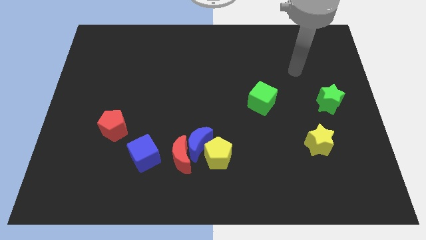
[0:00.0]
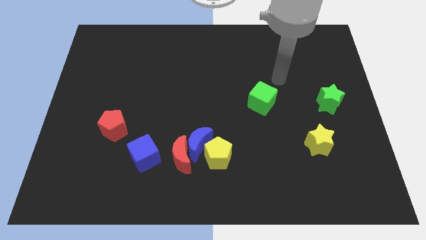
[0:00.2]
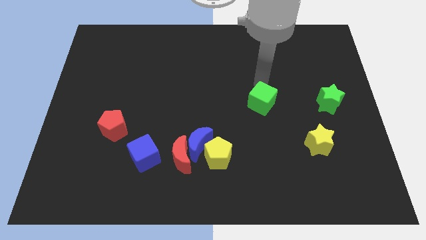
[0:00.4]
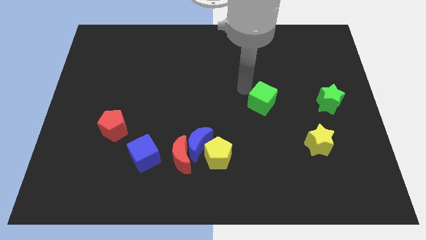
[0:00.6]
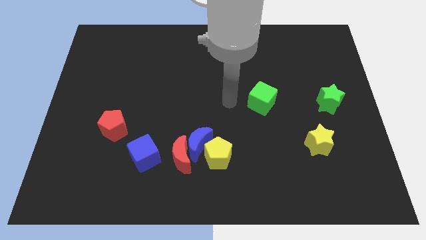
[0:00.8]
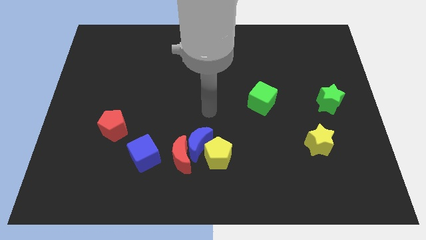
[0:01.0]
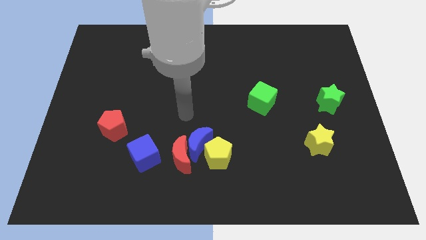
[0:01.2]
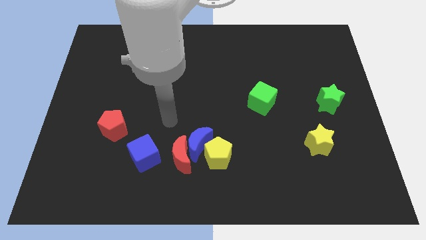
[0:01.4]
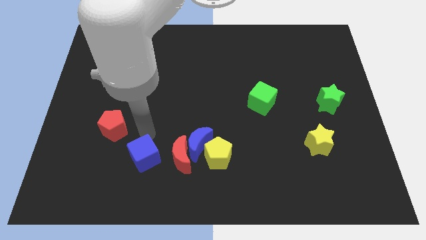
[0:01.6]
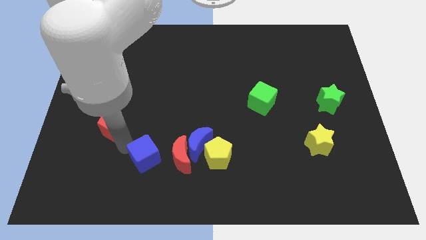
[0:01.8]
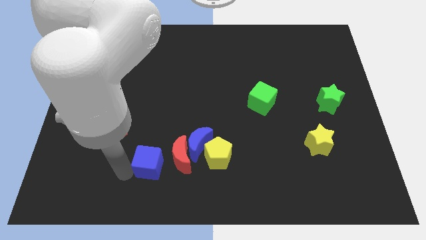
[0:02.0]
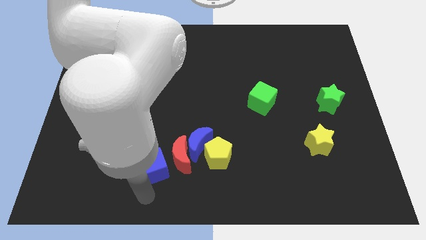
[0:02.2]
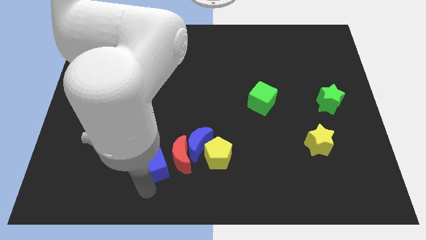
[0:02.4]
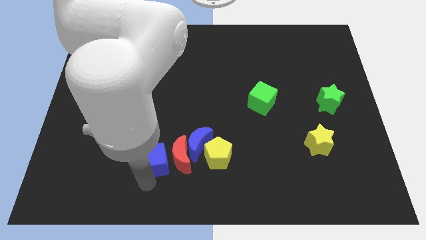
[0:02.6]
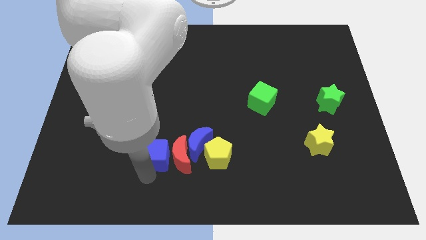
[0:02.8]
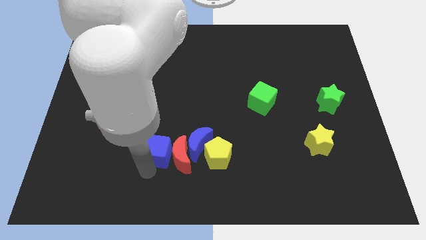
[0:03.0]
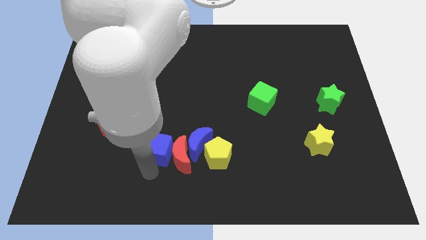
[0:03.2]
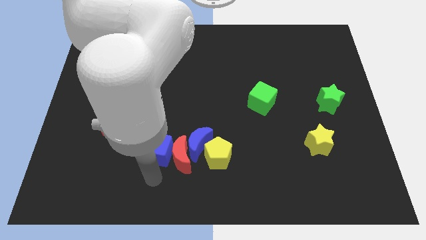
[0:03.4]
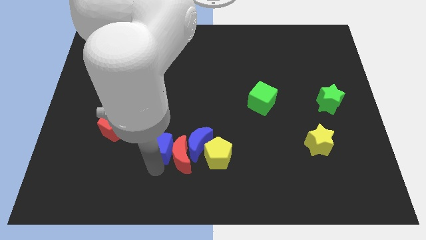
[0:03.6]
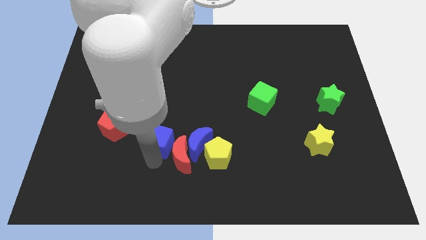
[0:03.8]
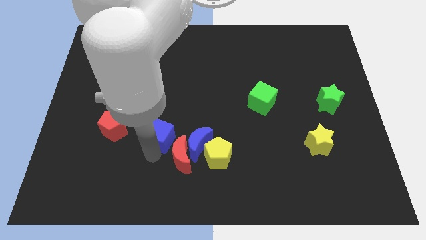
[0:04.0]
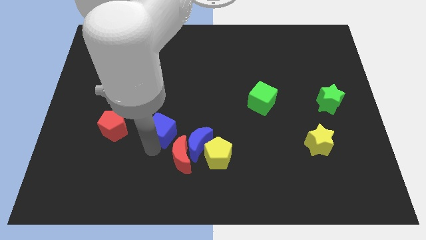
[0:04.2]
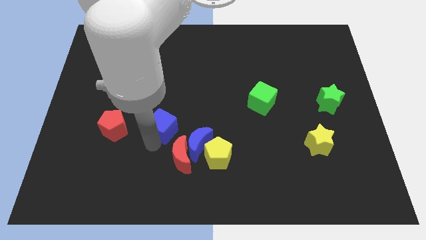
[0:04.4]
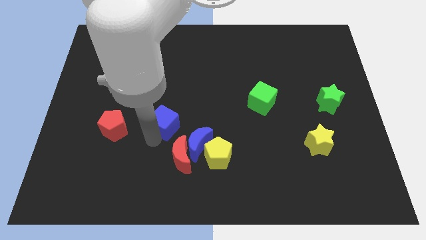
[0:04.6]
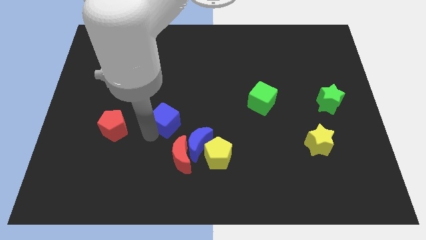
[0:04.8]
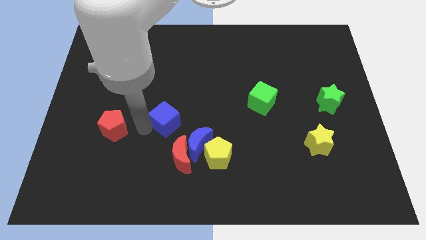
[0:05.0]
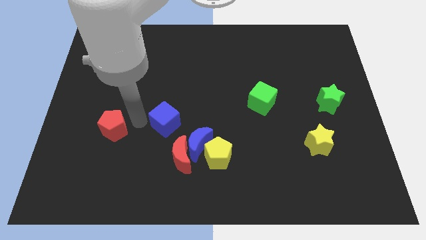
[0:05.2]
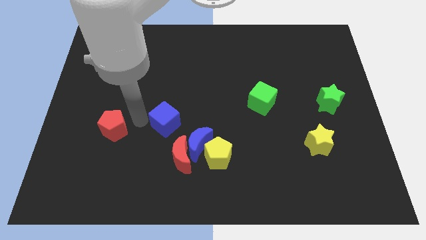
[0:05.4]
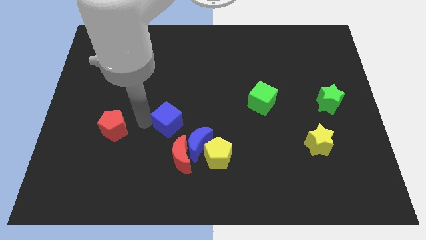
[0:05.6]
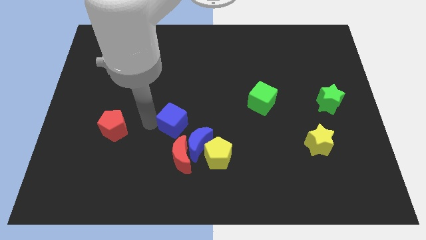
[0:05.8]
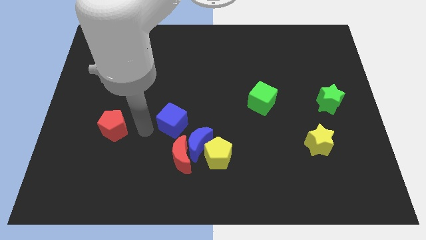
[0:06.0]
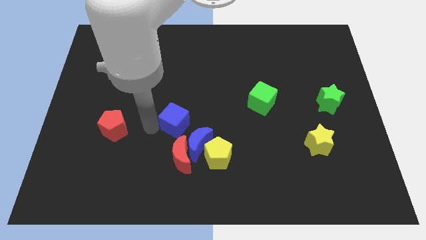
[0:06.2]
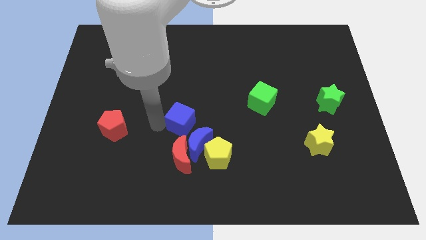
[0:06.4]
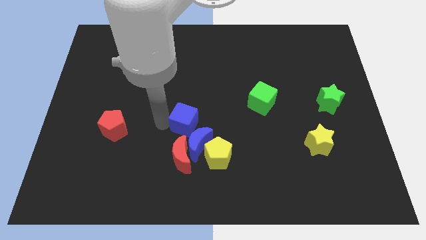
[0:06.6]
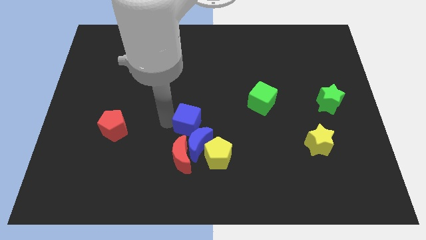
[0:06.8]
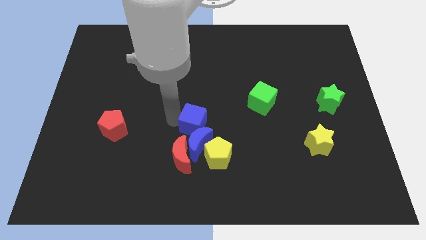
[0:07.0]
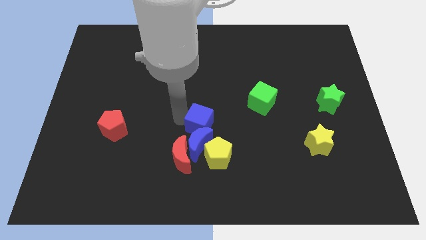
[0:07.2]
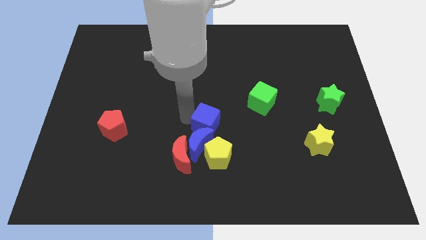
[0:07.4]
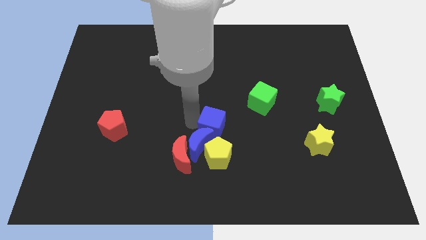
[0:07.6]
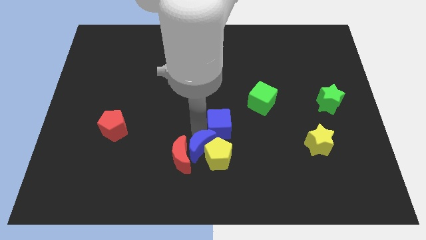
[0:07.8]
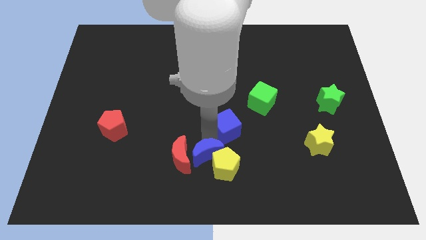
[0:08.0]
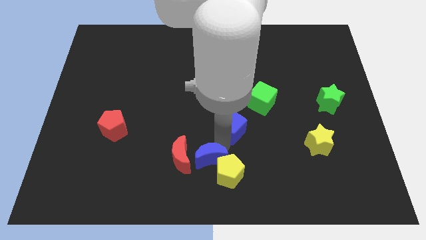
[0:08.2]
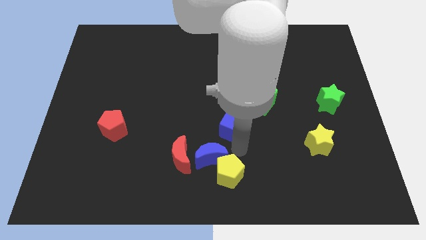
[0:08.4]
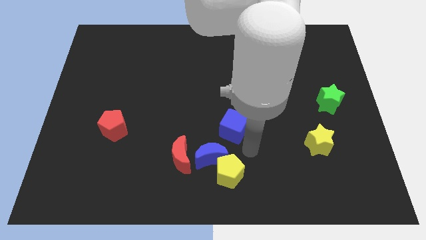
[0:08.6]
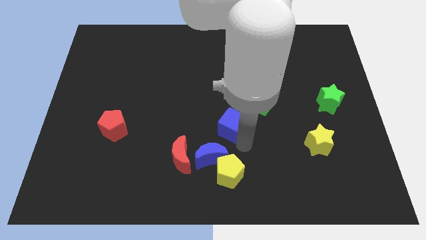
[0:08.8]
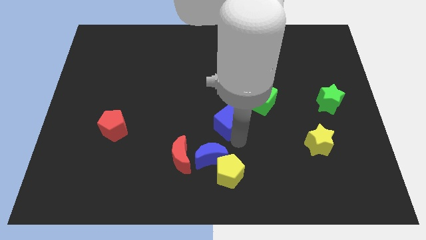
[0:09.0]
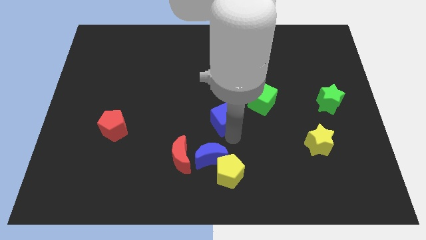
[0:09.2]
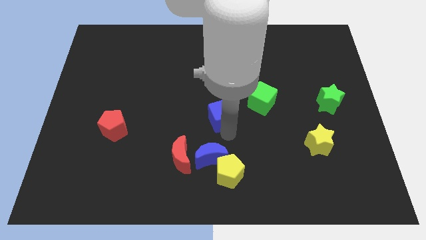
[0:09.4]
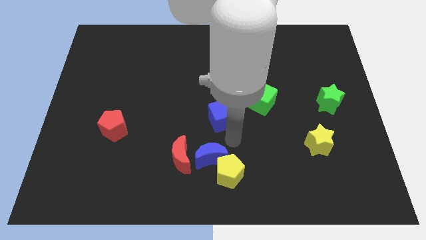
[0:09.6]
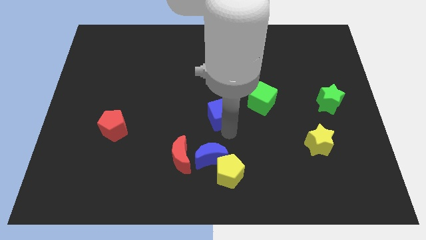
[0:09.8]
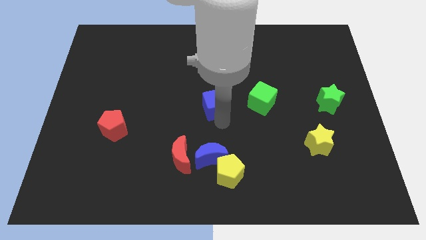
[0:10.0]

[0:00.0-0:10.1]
push the blue cube upwards and right diagonally

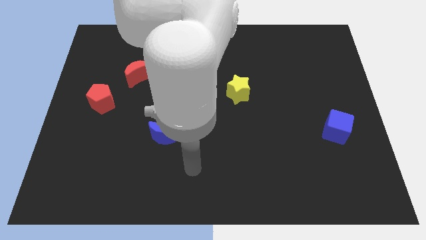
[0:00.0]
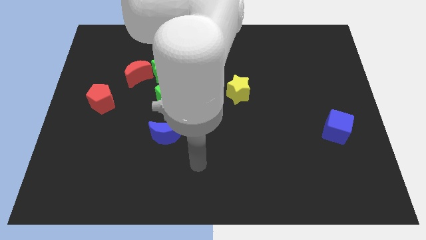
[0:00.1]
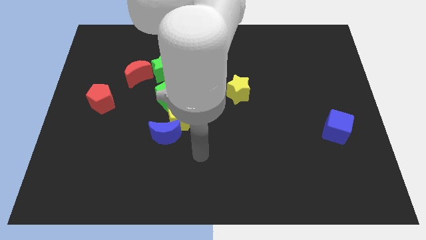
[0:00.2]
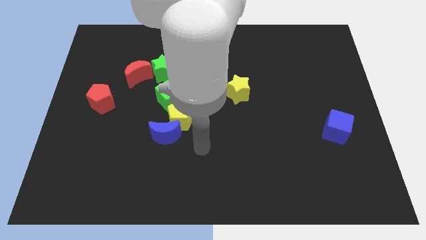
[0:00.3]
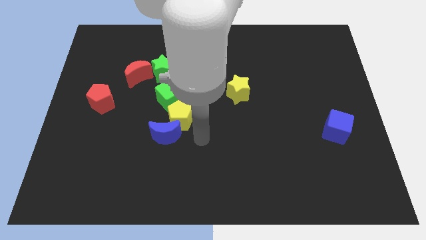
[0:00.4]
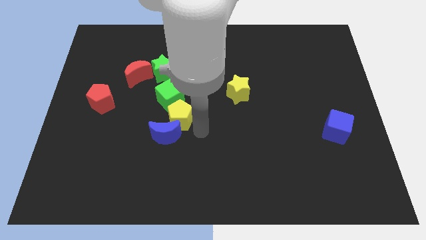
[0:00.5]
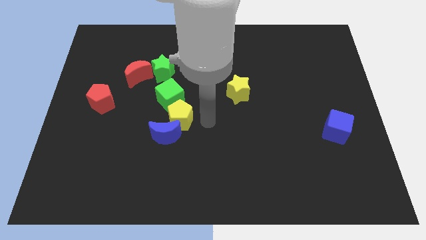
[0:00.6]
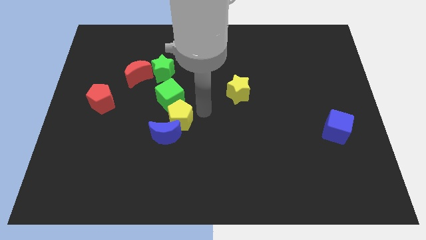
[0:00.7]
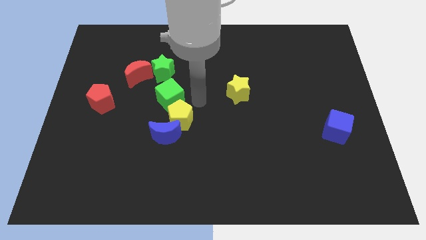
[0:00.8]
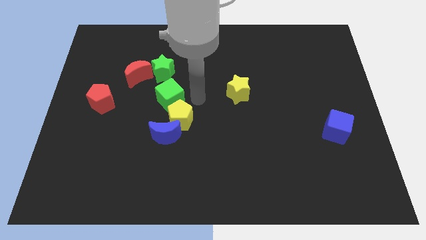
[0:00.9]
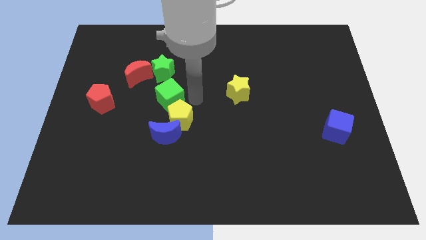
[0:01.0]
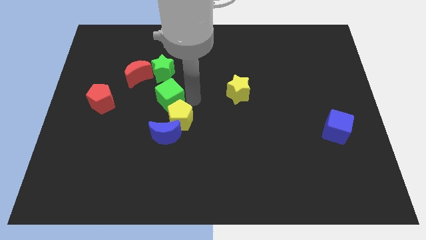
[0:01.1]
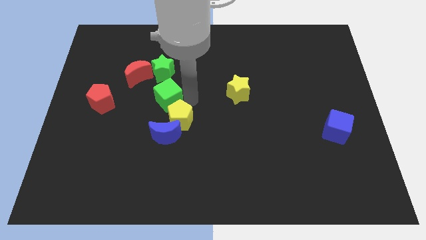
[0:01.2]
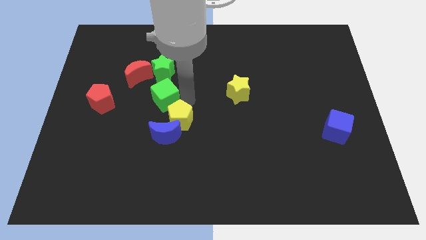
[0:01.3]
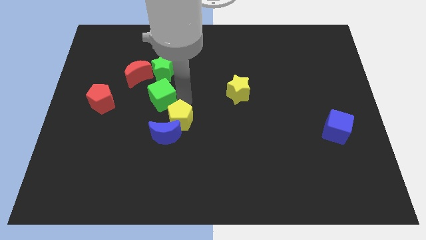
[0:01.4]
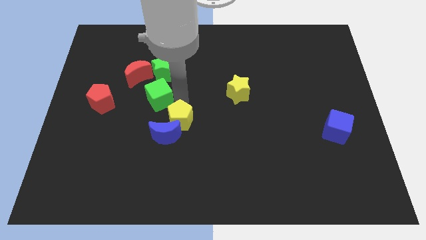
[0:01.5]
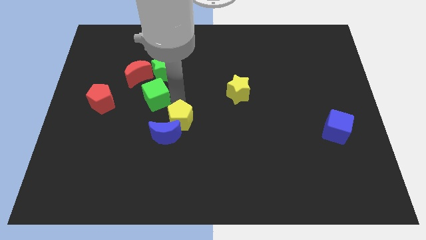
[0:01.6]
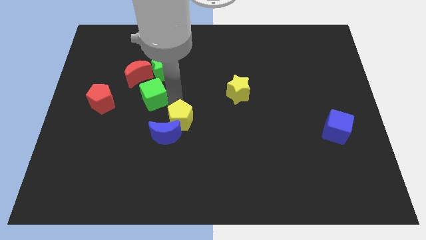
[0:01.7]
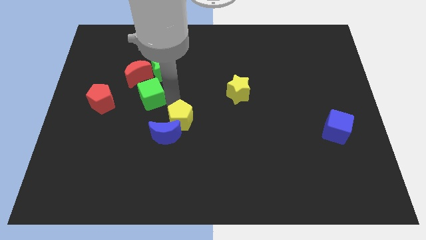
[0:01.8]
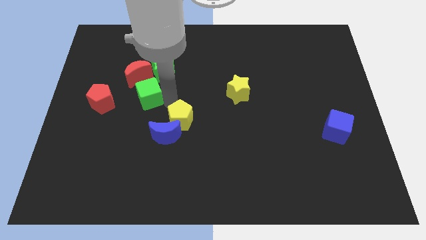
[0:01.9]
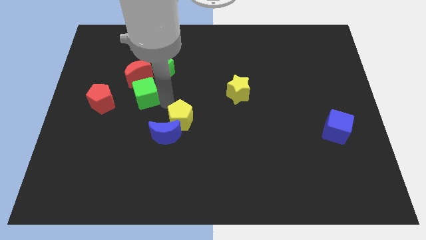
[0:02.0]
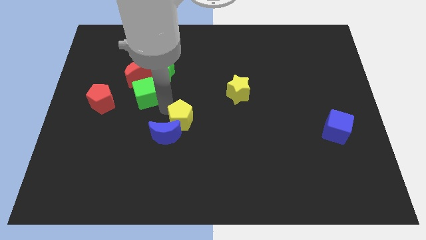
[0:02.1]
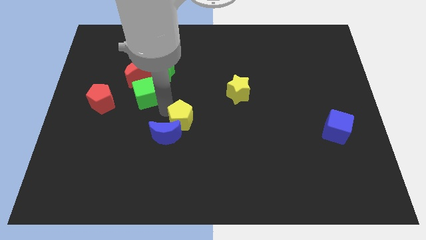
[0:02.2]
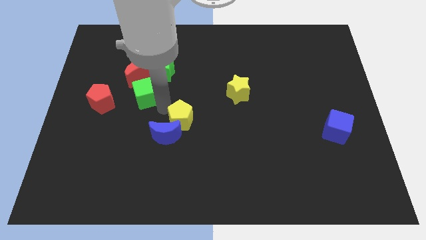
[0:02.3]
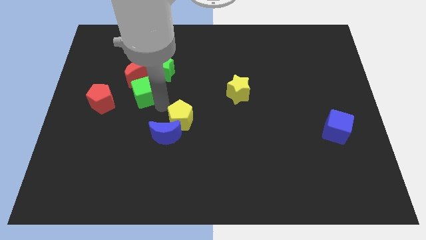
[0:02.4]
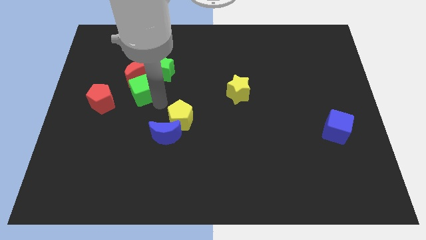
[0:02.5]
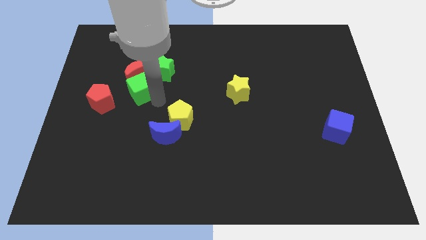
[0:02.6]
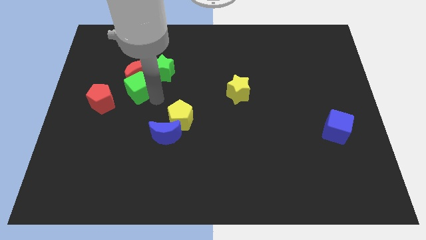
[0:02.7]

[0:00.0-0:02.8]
move the green cube slightly up and left diagonally

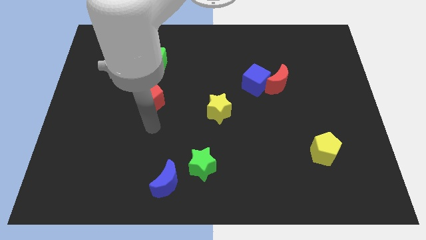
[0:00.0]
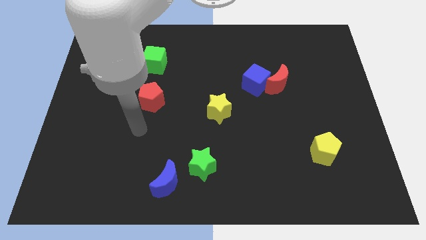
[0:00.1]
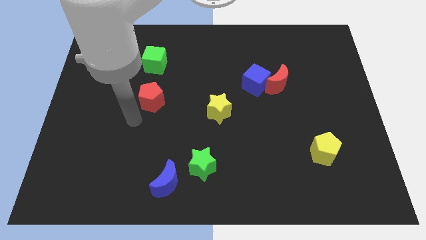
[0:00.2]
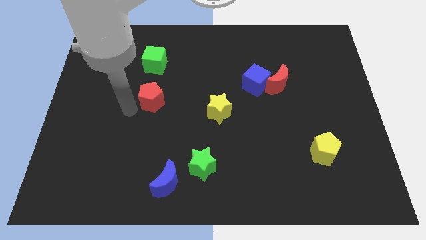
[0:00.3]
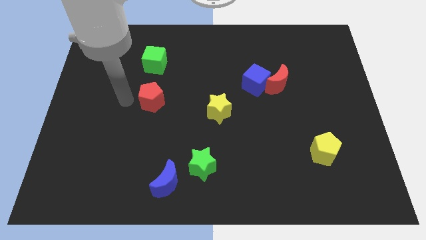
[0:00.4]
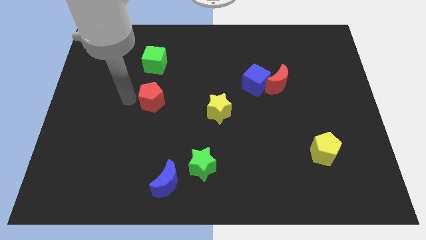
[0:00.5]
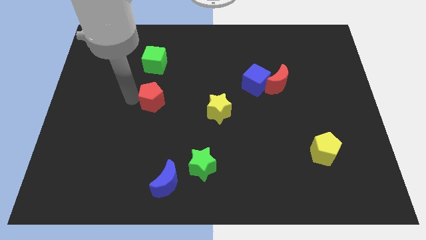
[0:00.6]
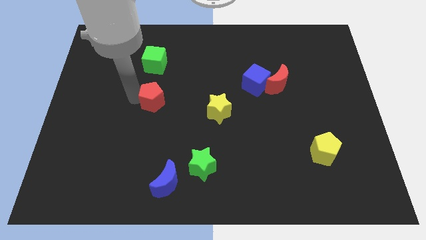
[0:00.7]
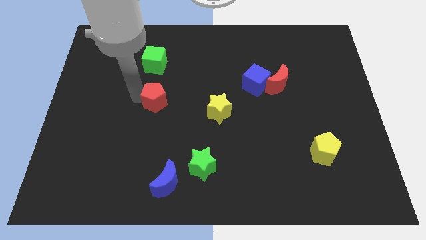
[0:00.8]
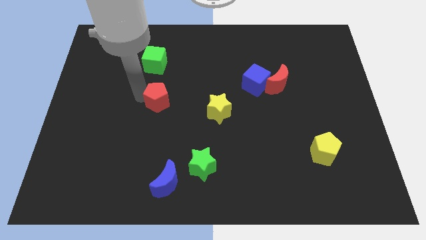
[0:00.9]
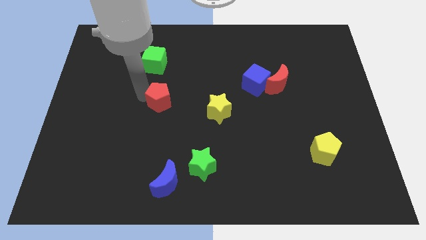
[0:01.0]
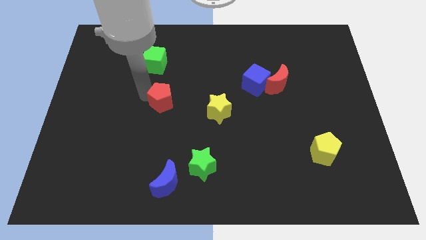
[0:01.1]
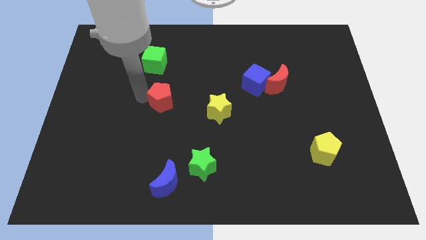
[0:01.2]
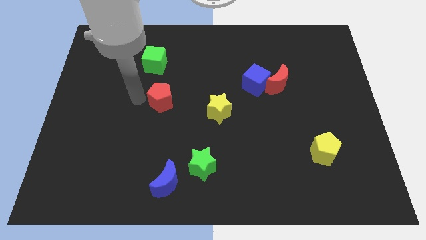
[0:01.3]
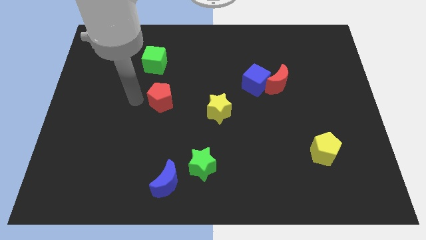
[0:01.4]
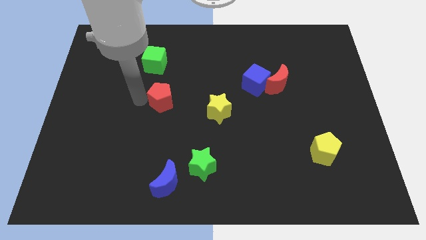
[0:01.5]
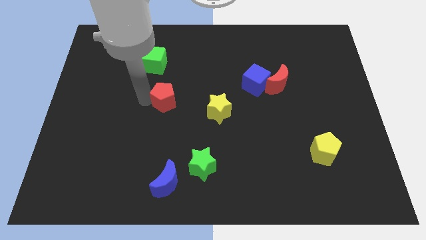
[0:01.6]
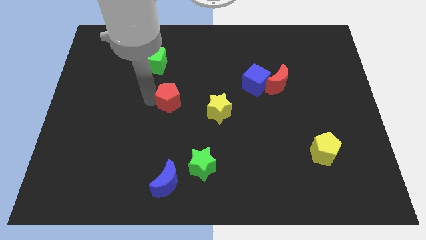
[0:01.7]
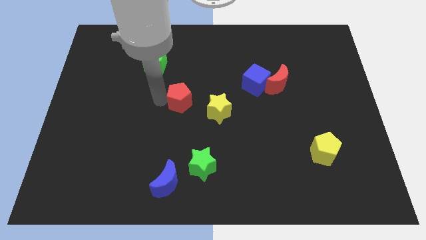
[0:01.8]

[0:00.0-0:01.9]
slide the red pentagon to the right a bit
